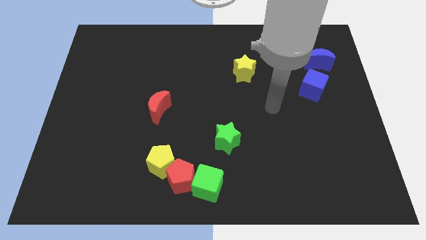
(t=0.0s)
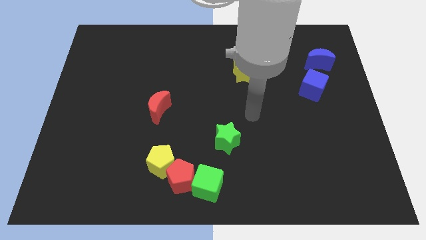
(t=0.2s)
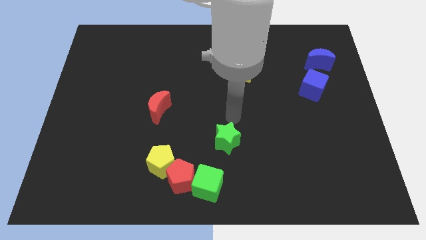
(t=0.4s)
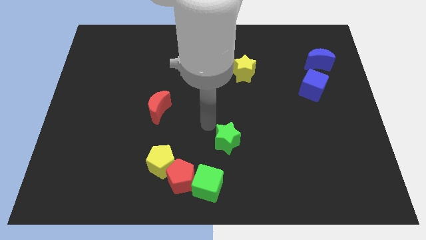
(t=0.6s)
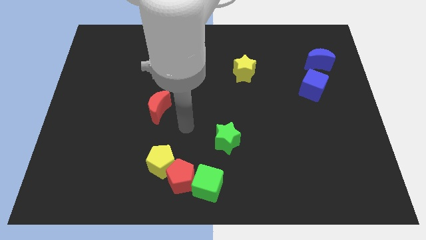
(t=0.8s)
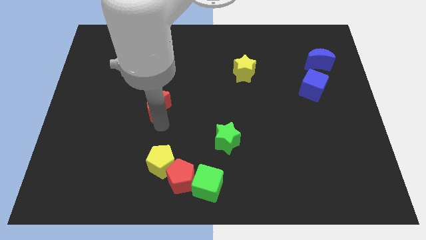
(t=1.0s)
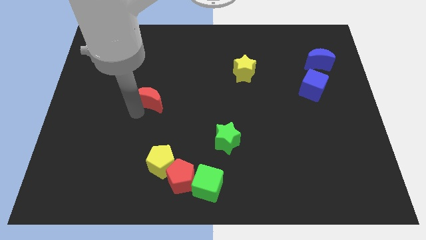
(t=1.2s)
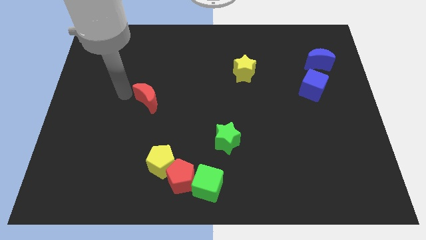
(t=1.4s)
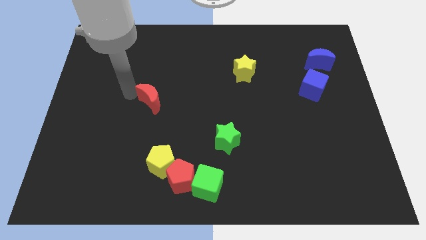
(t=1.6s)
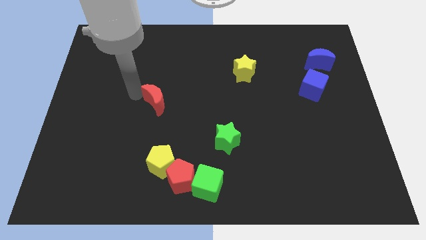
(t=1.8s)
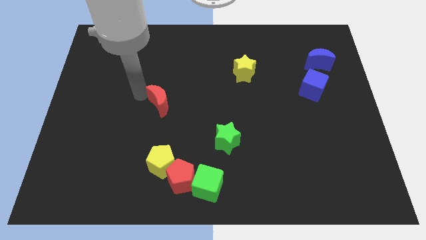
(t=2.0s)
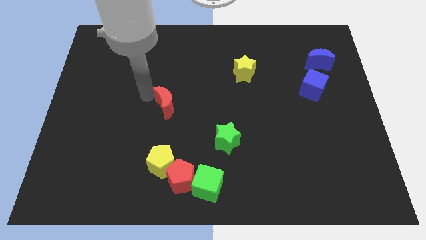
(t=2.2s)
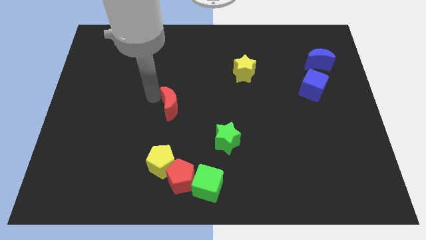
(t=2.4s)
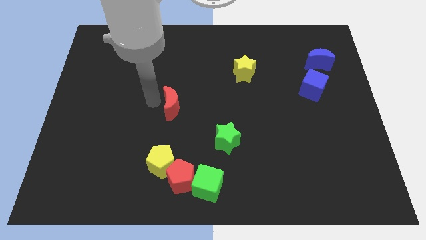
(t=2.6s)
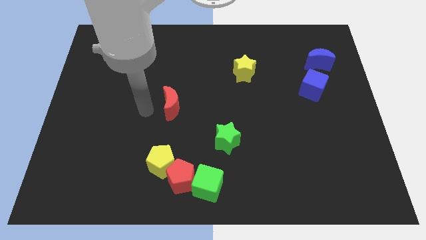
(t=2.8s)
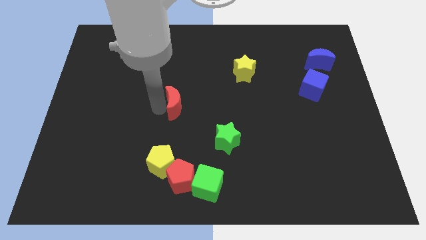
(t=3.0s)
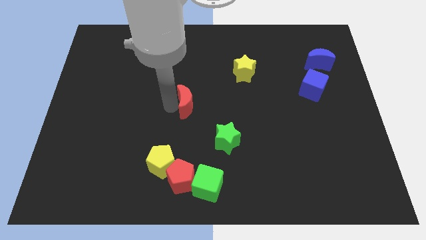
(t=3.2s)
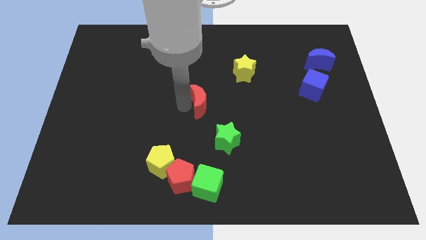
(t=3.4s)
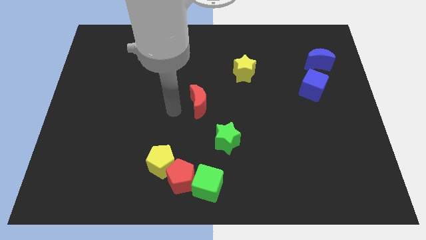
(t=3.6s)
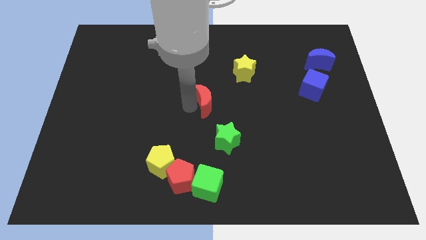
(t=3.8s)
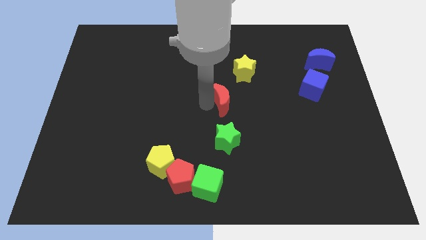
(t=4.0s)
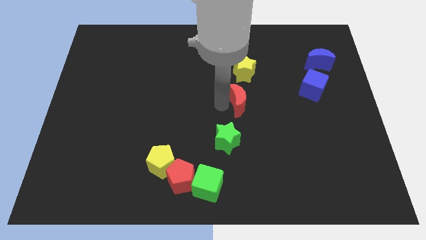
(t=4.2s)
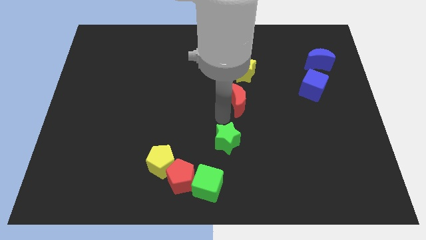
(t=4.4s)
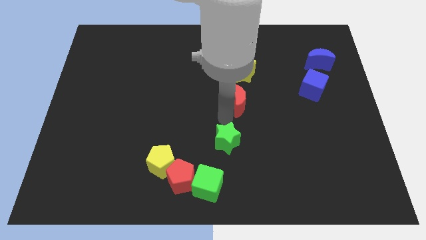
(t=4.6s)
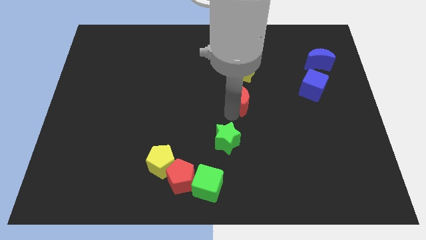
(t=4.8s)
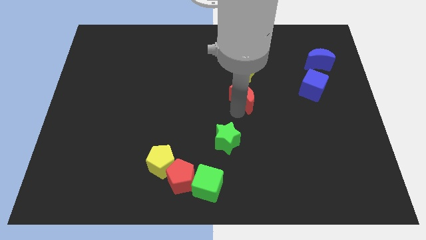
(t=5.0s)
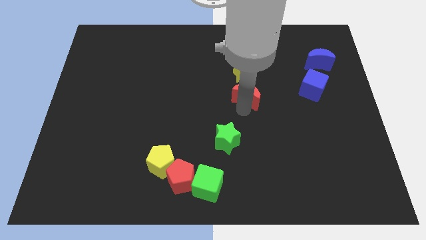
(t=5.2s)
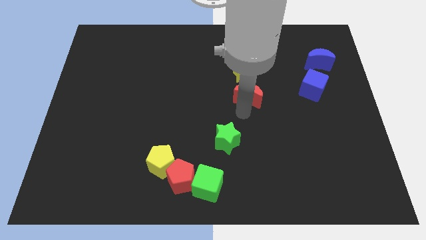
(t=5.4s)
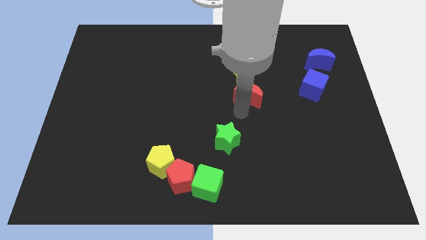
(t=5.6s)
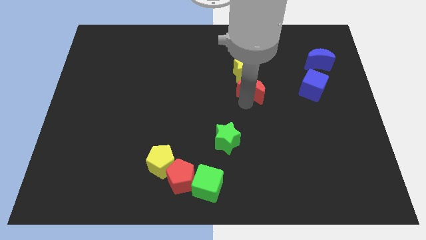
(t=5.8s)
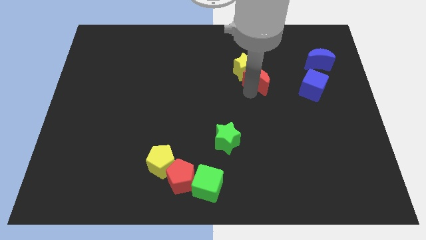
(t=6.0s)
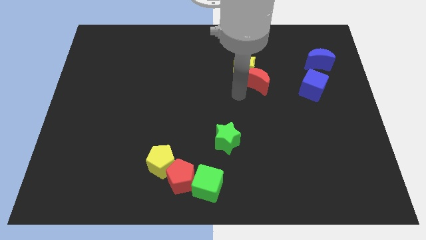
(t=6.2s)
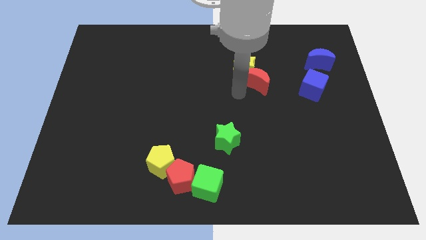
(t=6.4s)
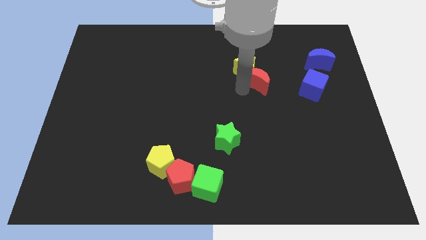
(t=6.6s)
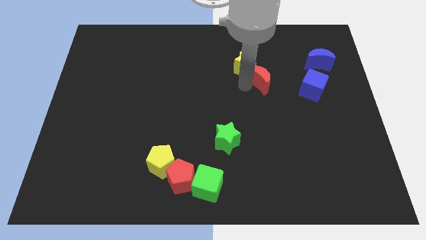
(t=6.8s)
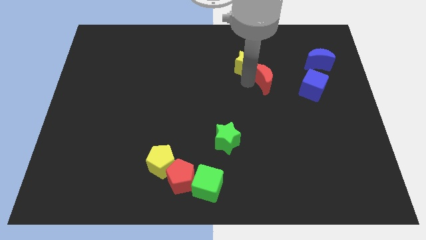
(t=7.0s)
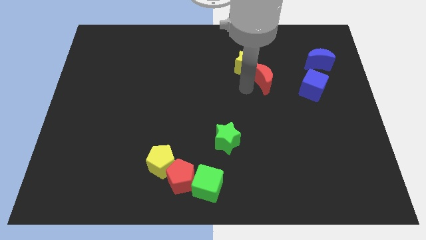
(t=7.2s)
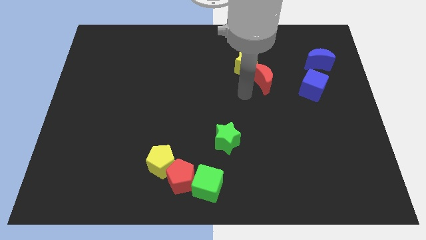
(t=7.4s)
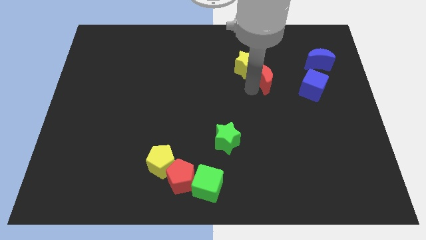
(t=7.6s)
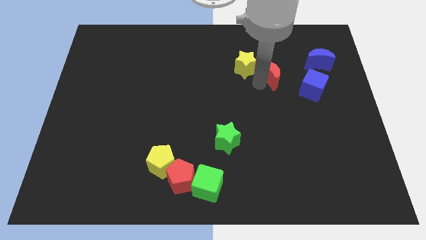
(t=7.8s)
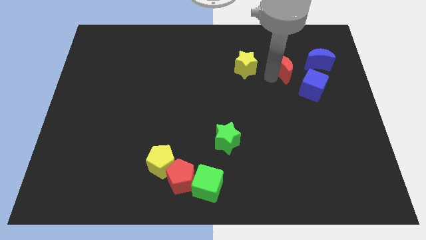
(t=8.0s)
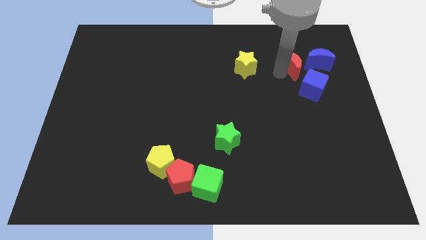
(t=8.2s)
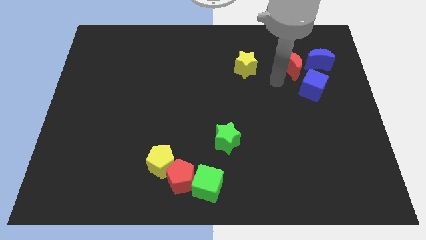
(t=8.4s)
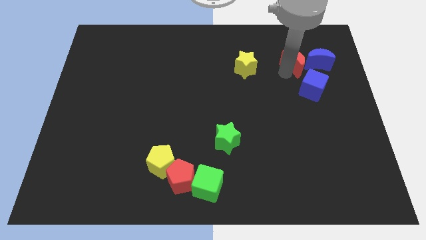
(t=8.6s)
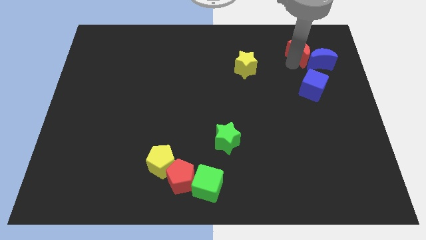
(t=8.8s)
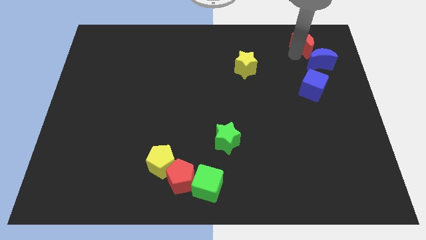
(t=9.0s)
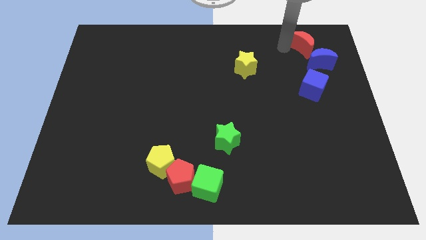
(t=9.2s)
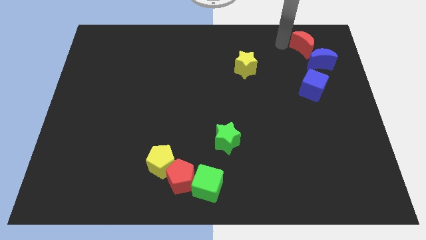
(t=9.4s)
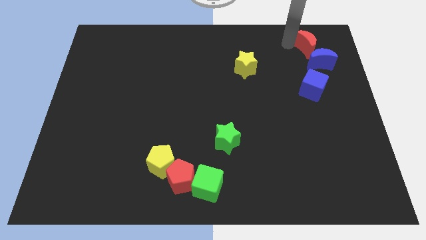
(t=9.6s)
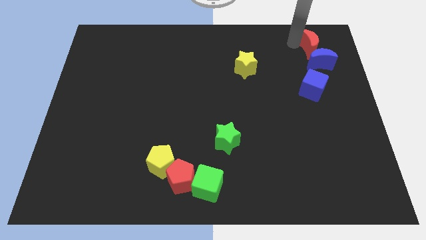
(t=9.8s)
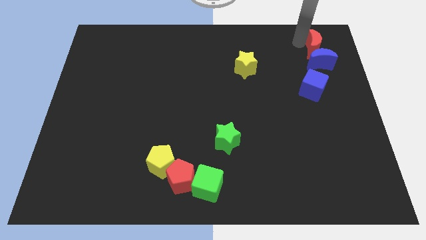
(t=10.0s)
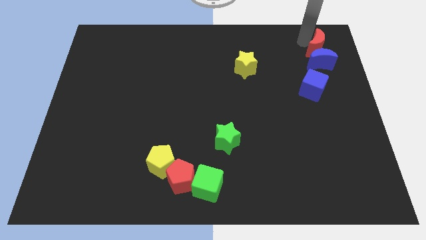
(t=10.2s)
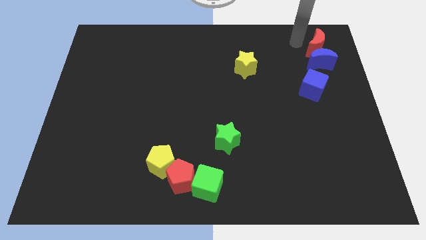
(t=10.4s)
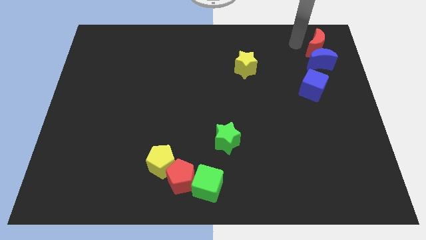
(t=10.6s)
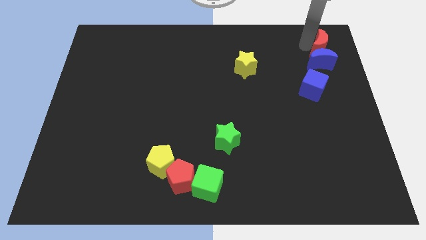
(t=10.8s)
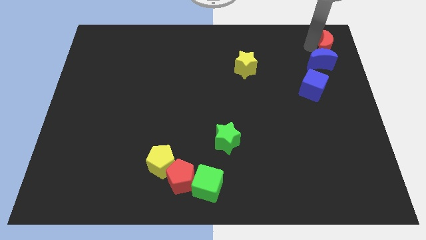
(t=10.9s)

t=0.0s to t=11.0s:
slide the red moon to the top right of the board

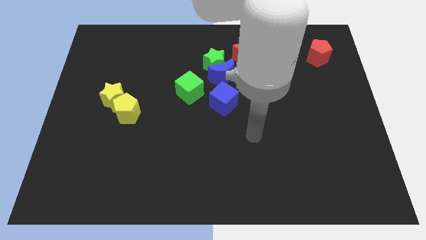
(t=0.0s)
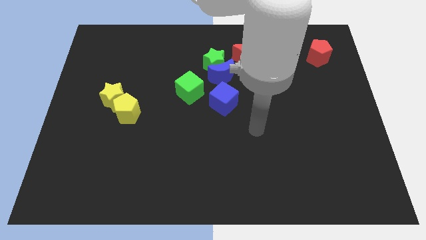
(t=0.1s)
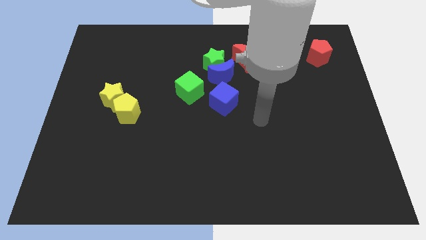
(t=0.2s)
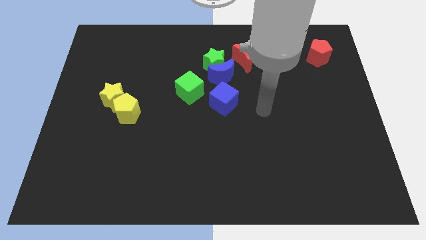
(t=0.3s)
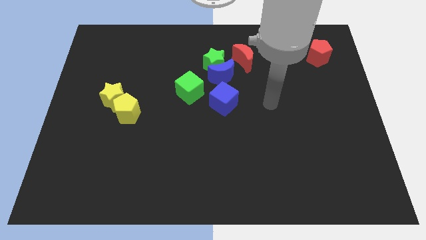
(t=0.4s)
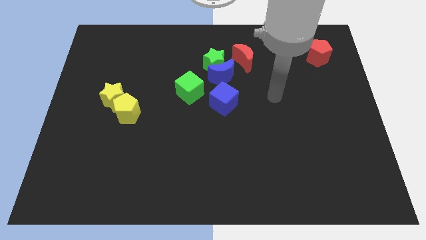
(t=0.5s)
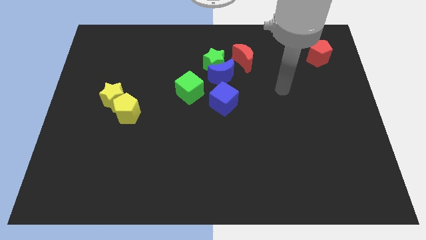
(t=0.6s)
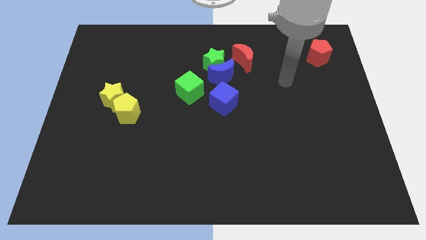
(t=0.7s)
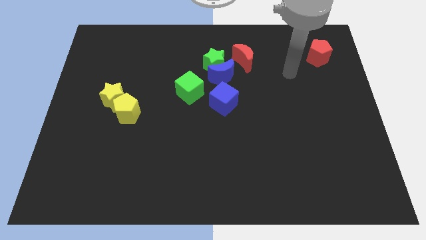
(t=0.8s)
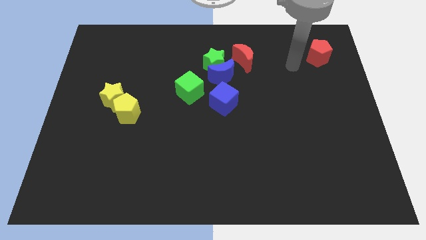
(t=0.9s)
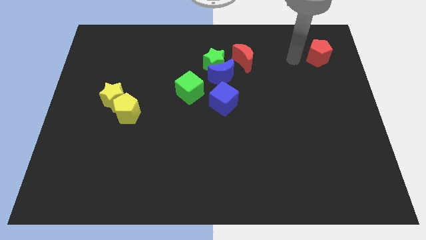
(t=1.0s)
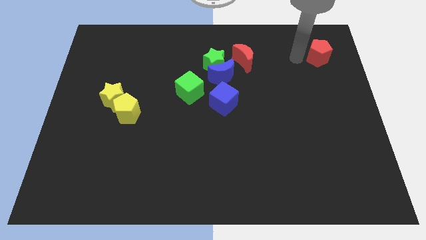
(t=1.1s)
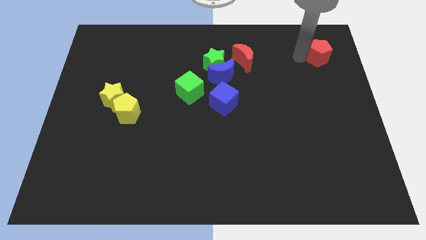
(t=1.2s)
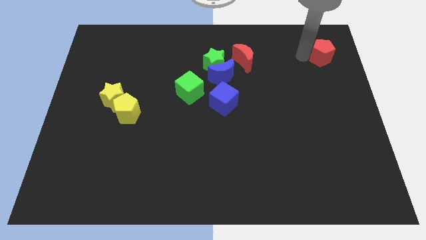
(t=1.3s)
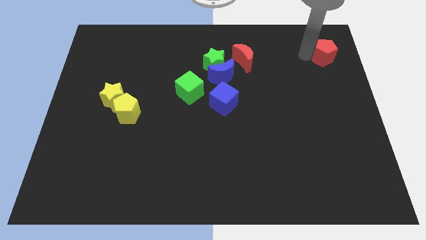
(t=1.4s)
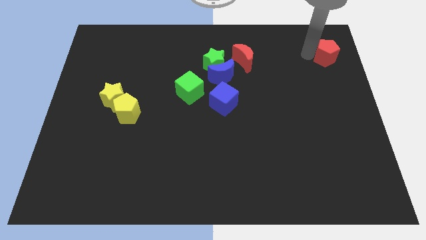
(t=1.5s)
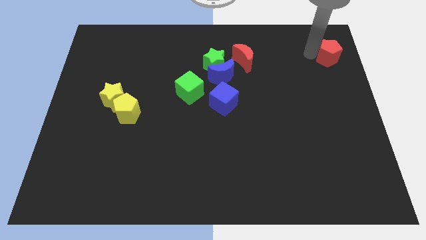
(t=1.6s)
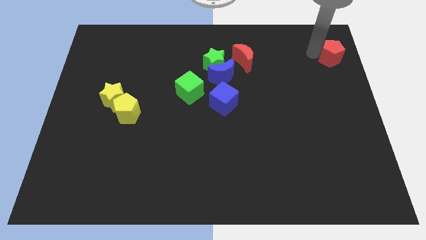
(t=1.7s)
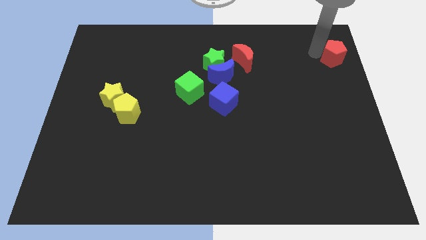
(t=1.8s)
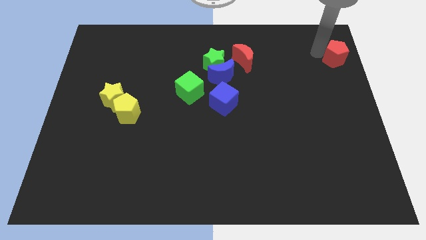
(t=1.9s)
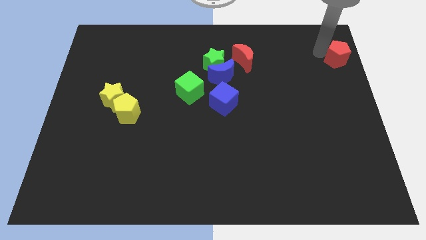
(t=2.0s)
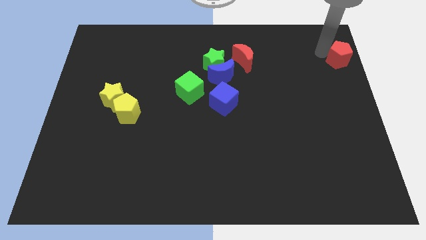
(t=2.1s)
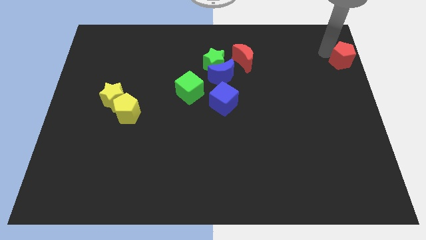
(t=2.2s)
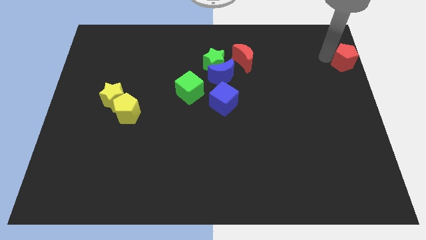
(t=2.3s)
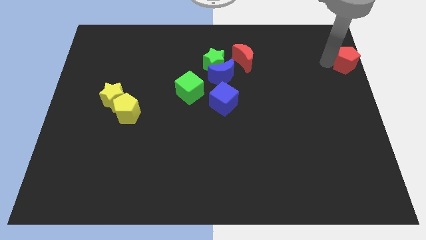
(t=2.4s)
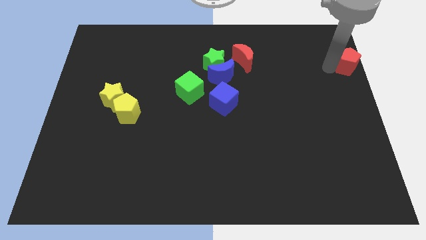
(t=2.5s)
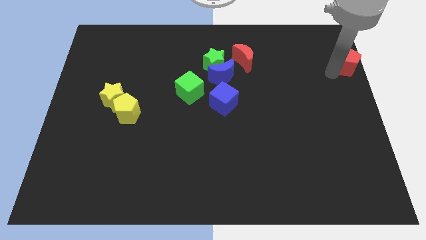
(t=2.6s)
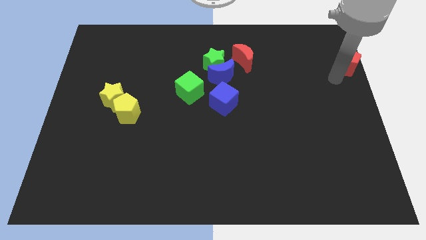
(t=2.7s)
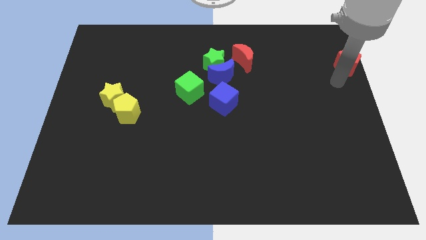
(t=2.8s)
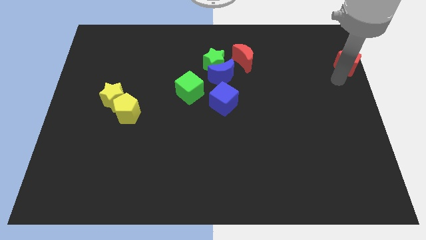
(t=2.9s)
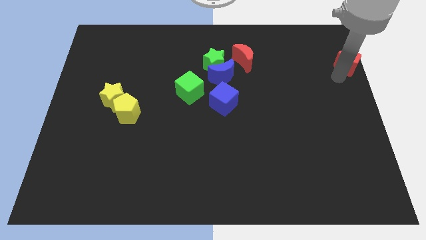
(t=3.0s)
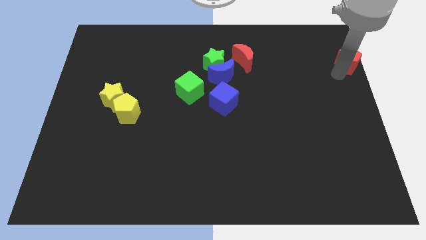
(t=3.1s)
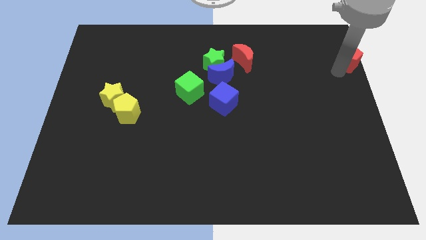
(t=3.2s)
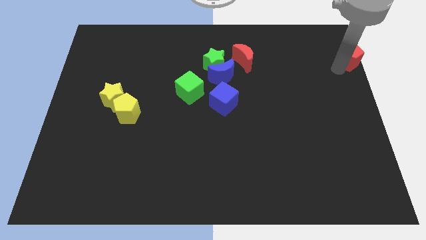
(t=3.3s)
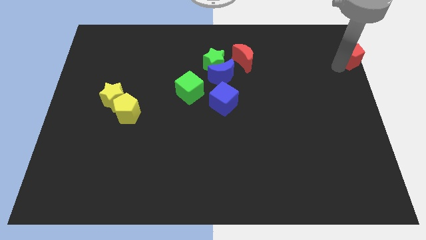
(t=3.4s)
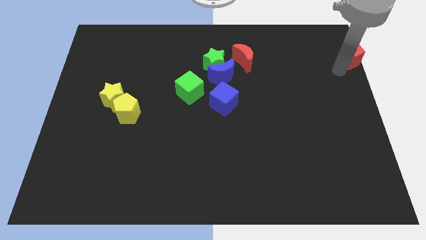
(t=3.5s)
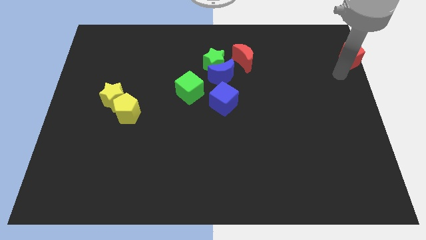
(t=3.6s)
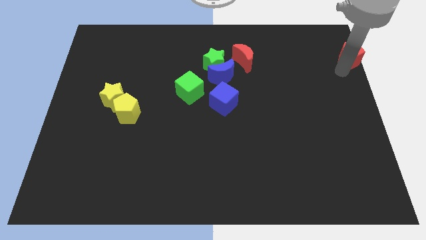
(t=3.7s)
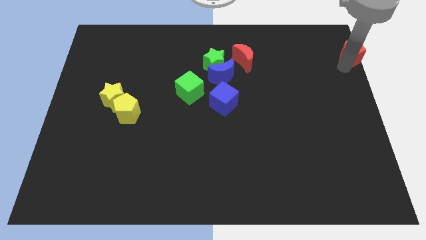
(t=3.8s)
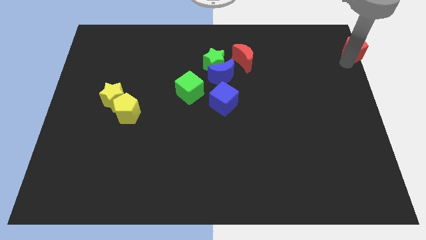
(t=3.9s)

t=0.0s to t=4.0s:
move the red pentagon to the top right corner
